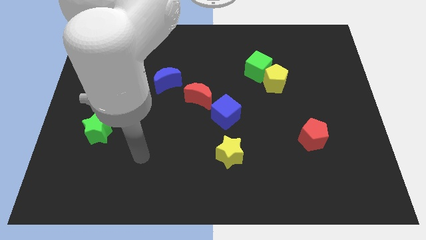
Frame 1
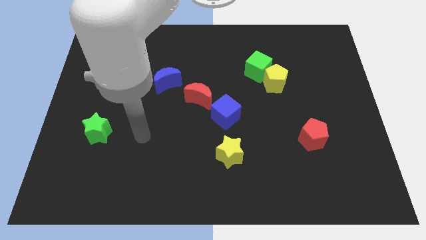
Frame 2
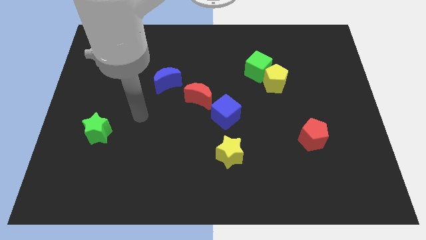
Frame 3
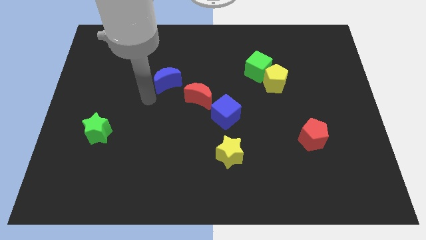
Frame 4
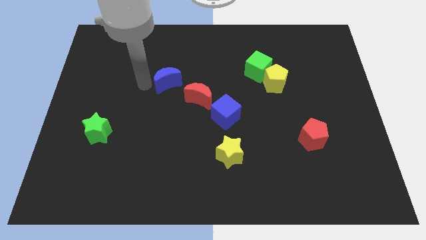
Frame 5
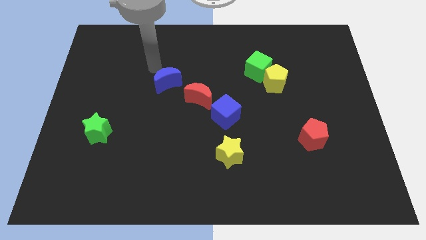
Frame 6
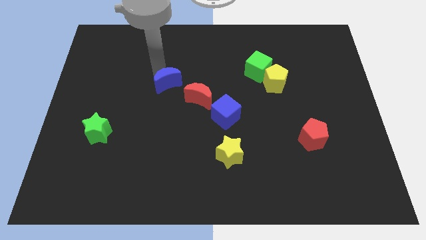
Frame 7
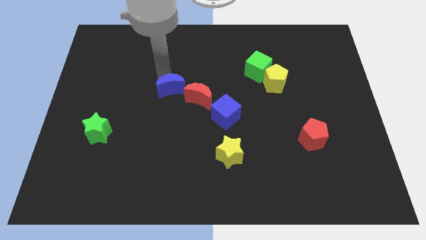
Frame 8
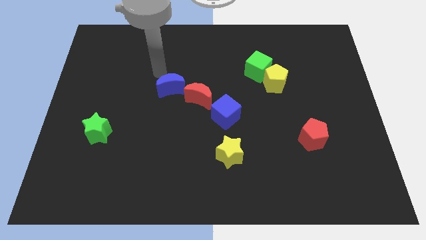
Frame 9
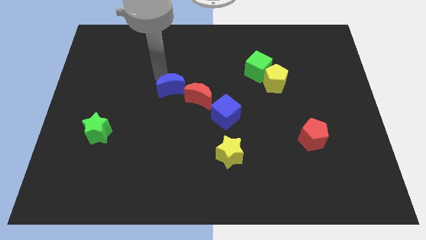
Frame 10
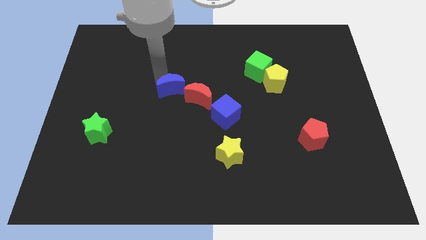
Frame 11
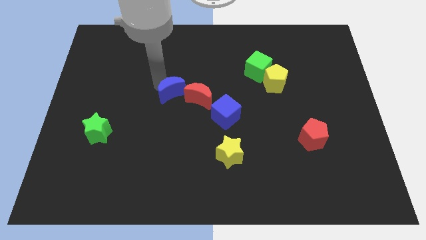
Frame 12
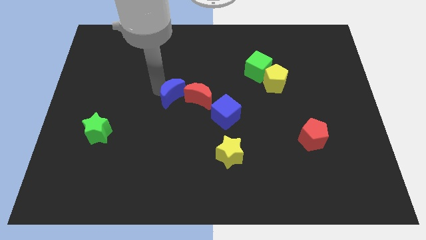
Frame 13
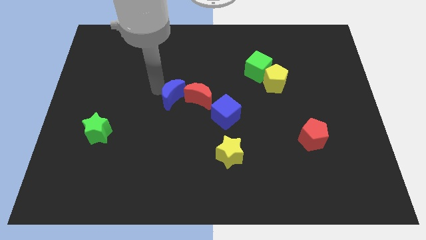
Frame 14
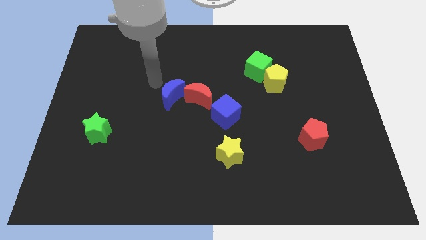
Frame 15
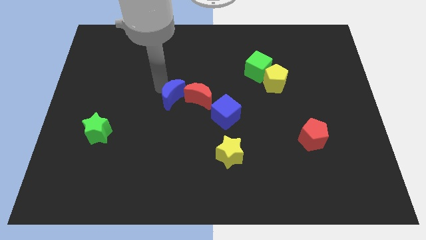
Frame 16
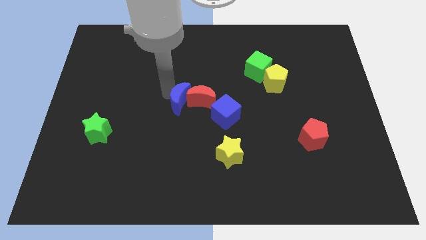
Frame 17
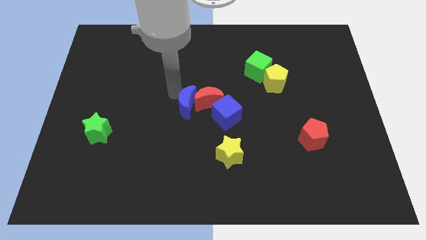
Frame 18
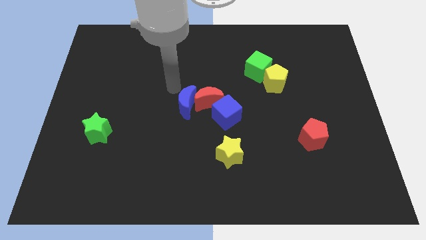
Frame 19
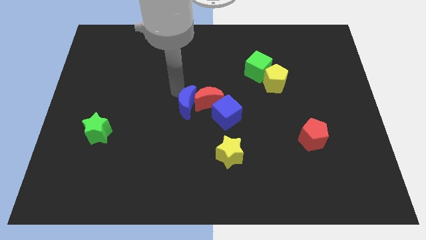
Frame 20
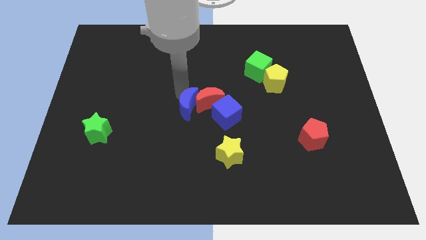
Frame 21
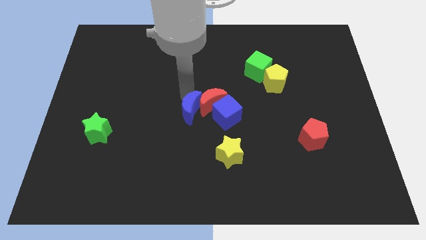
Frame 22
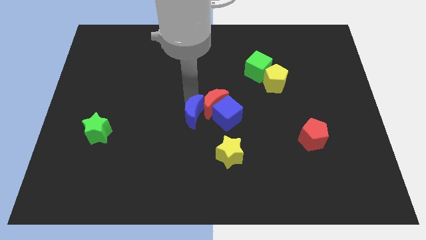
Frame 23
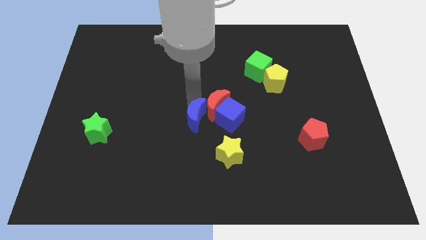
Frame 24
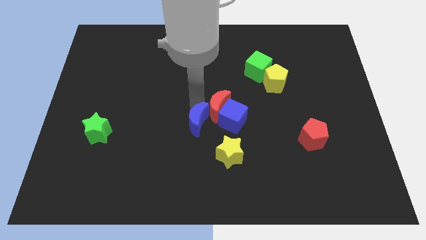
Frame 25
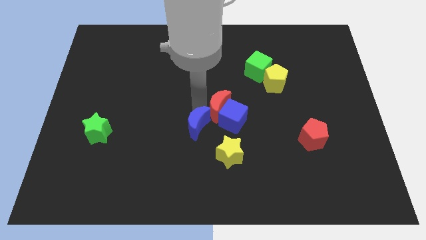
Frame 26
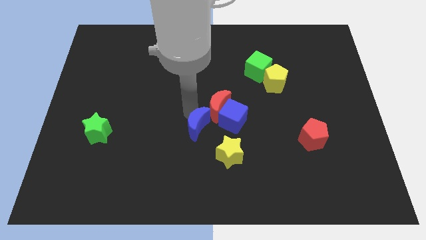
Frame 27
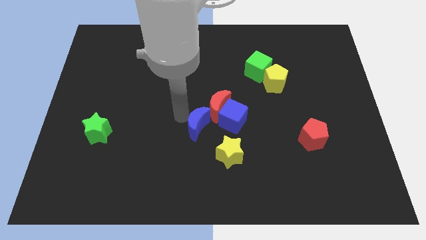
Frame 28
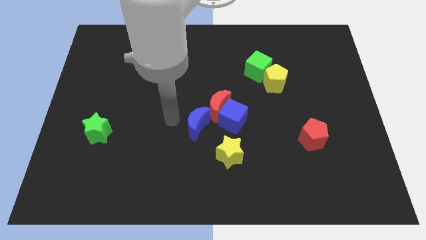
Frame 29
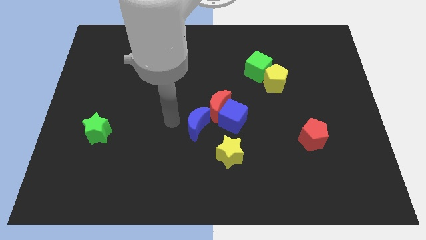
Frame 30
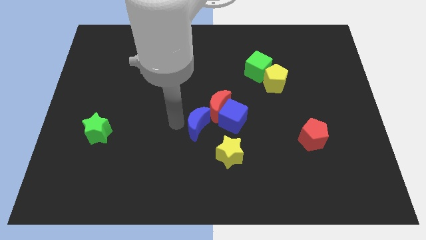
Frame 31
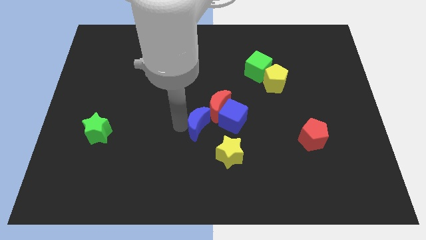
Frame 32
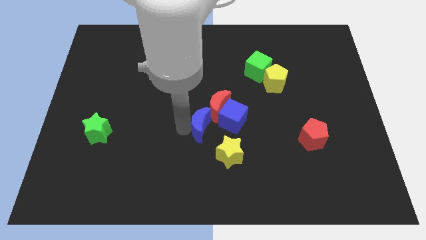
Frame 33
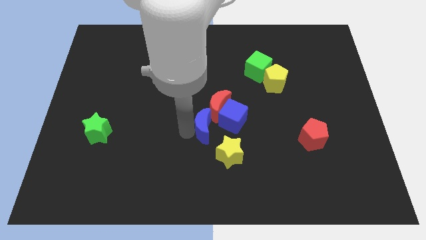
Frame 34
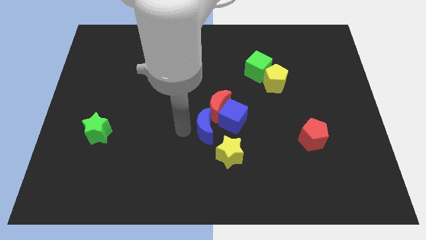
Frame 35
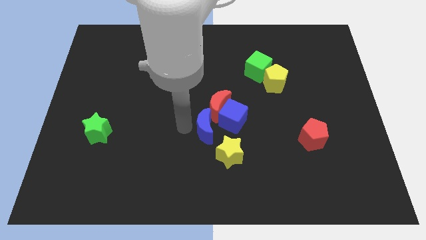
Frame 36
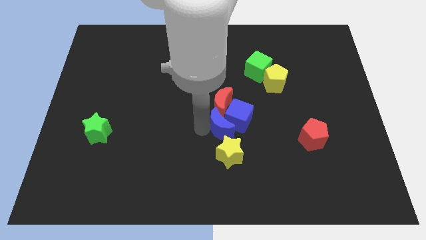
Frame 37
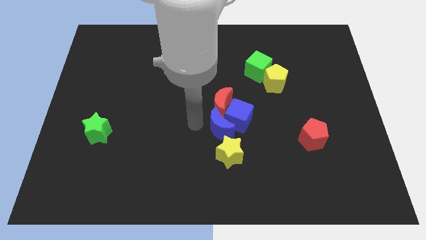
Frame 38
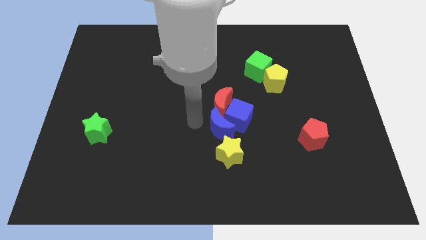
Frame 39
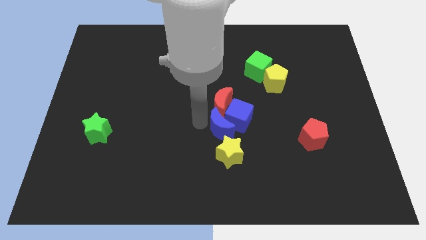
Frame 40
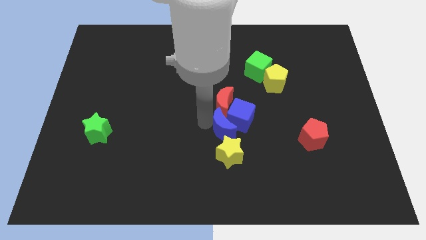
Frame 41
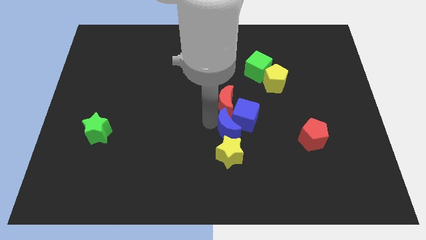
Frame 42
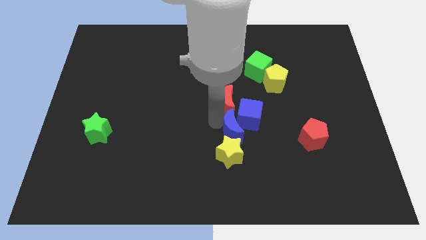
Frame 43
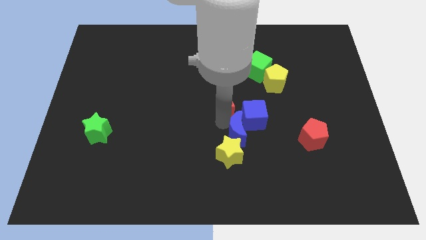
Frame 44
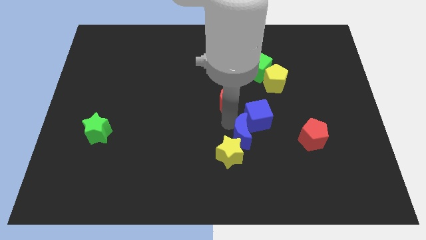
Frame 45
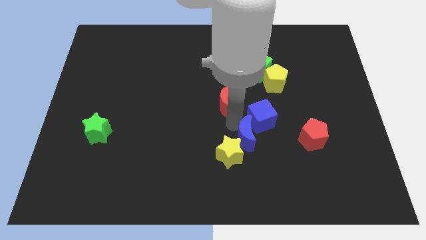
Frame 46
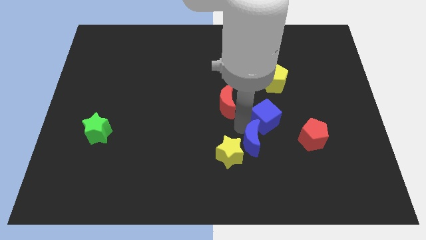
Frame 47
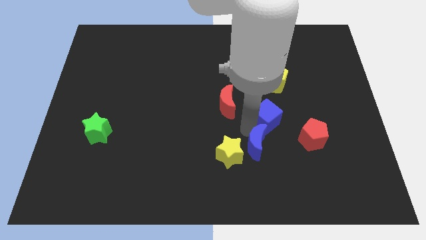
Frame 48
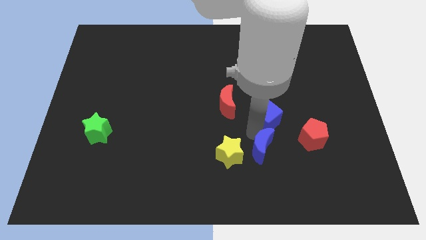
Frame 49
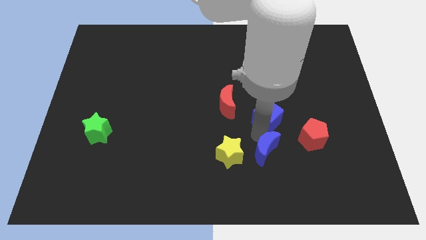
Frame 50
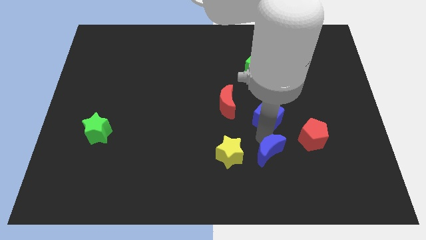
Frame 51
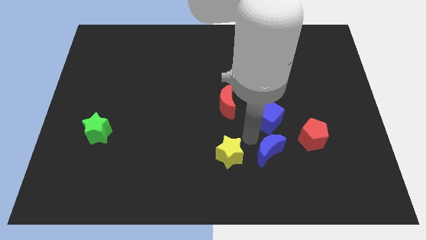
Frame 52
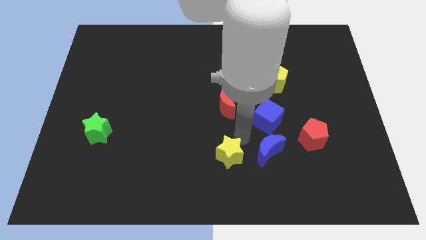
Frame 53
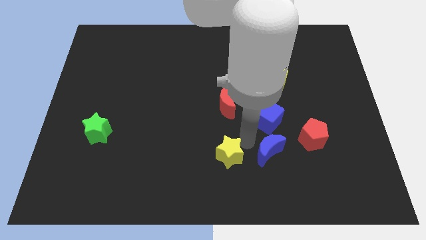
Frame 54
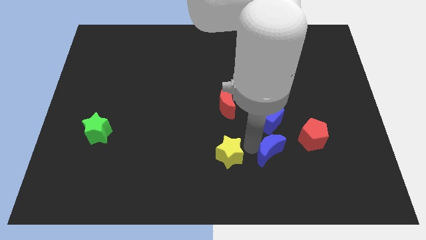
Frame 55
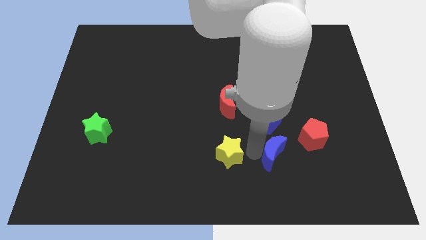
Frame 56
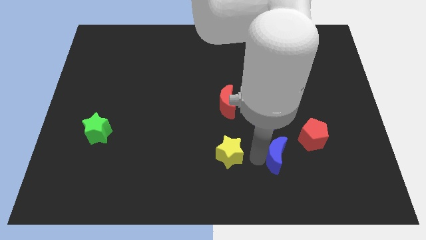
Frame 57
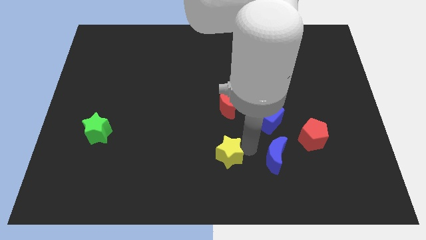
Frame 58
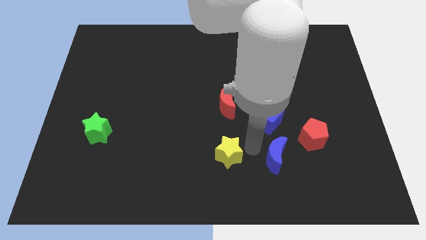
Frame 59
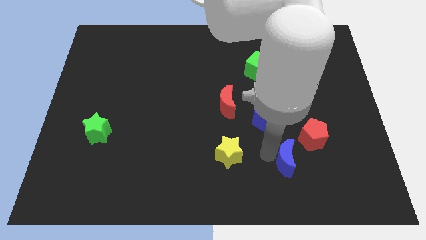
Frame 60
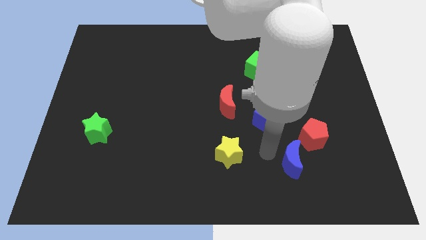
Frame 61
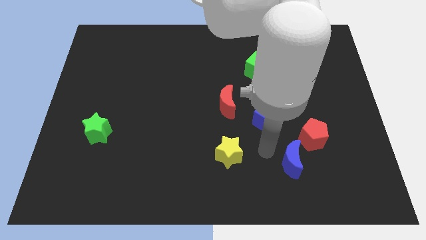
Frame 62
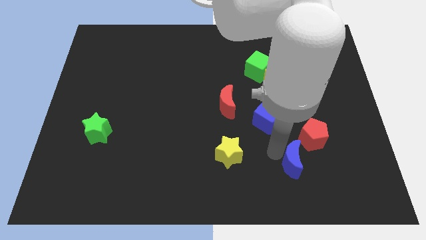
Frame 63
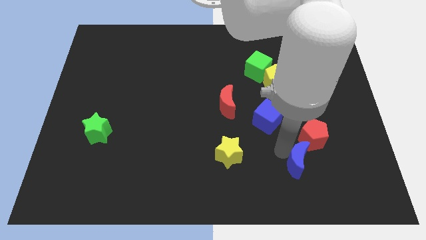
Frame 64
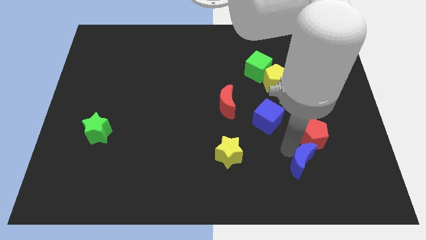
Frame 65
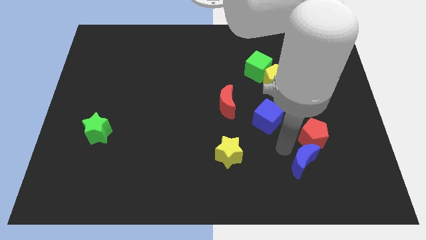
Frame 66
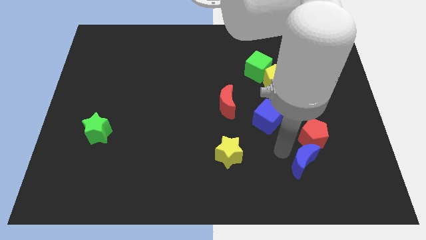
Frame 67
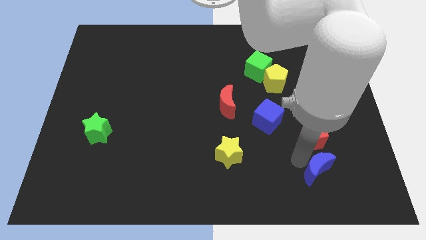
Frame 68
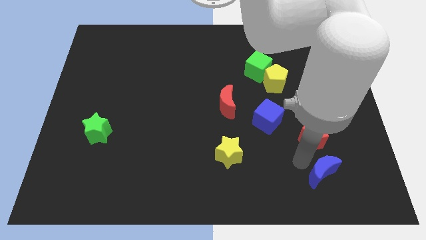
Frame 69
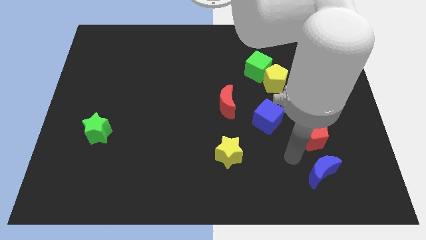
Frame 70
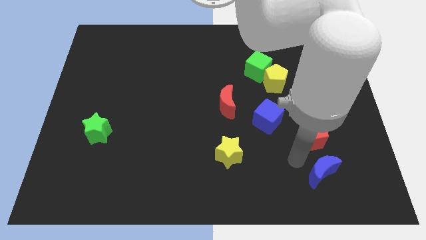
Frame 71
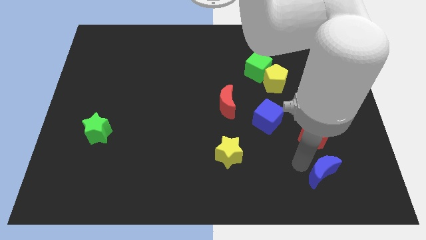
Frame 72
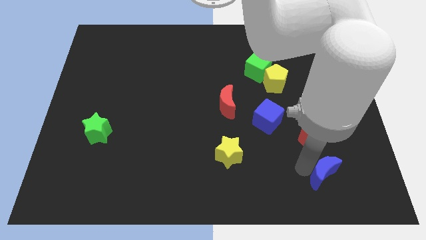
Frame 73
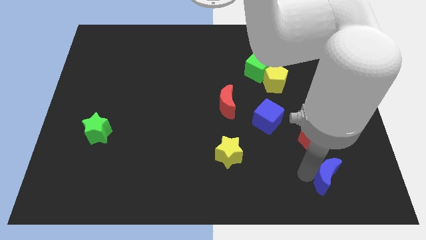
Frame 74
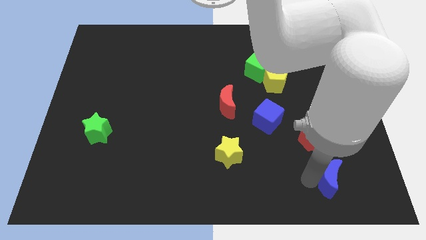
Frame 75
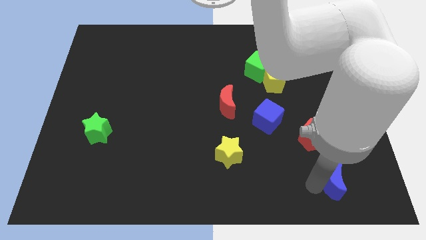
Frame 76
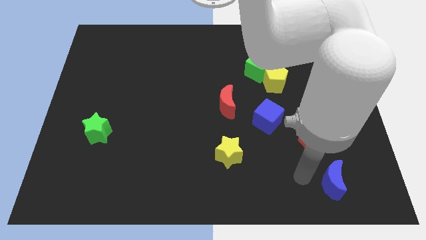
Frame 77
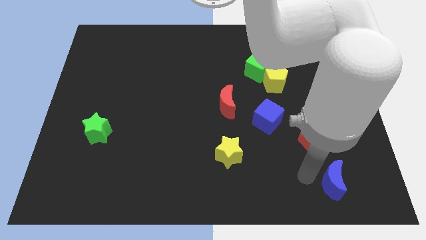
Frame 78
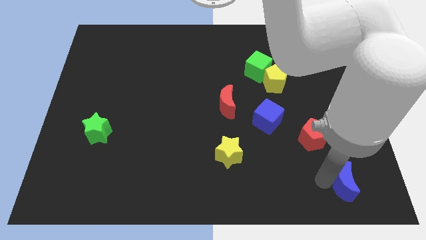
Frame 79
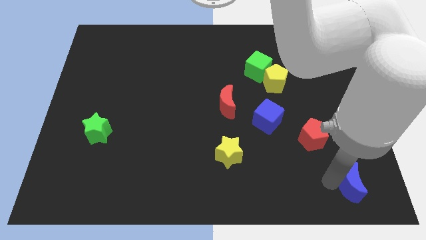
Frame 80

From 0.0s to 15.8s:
slide the blue moon to the bottom right
